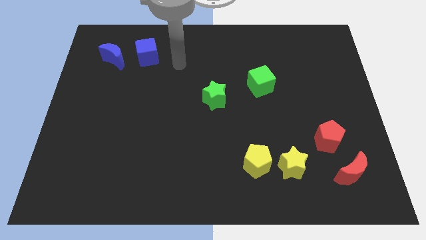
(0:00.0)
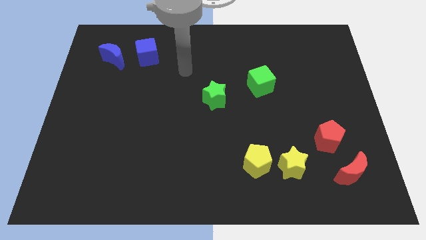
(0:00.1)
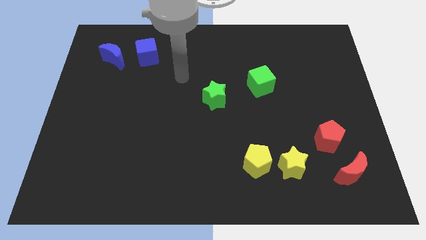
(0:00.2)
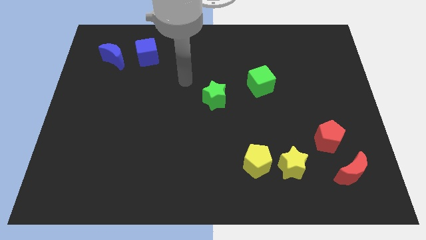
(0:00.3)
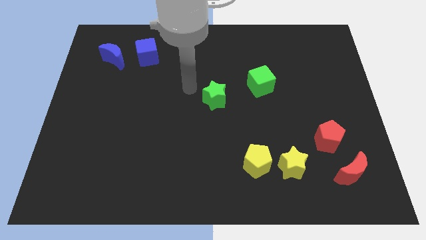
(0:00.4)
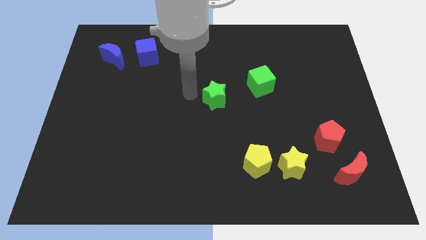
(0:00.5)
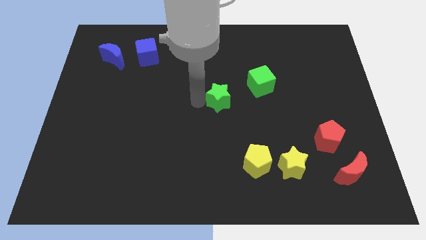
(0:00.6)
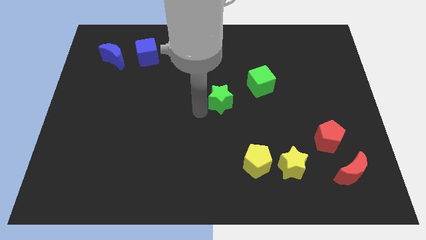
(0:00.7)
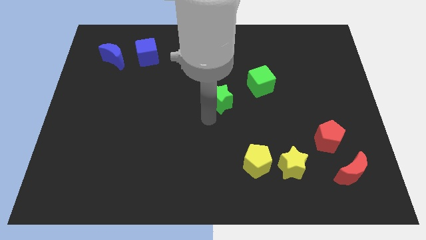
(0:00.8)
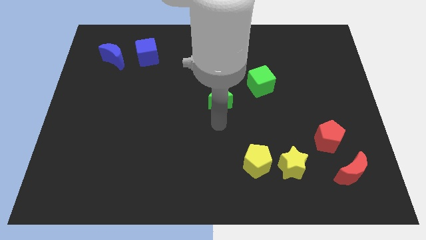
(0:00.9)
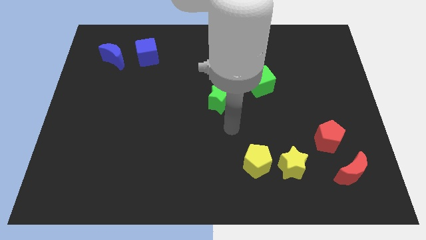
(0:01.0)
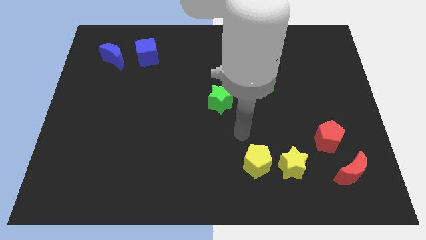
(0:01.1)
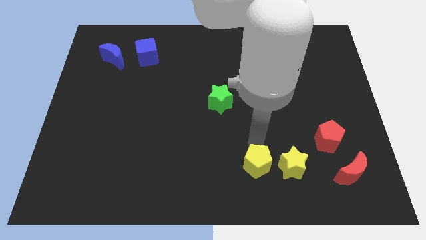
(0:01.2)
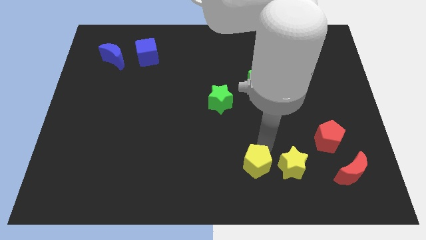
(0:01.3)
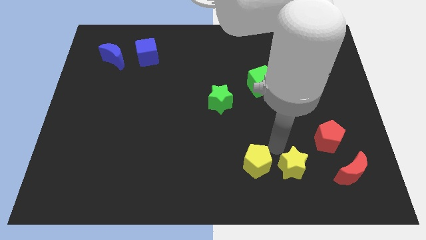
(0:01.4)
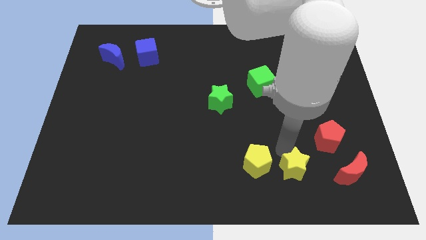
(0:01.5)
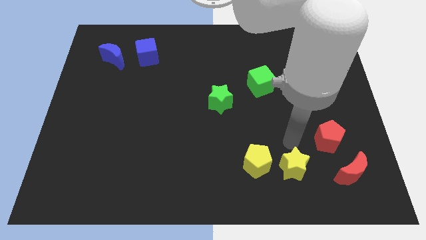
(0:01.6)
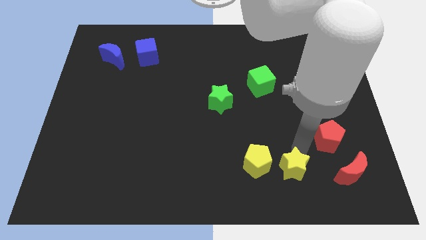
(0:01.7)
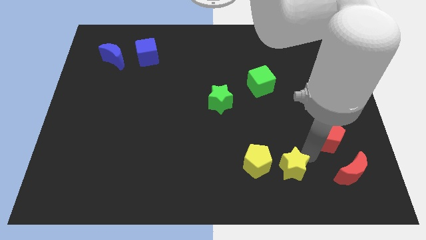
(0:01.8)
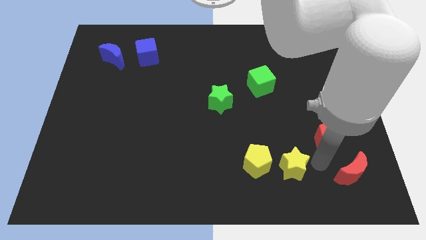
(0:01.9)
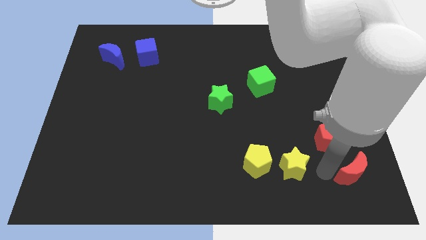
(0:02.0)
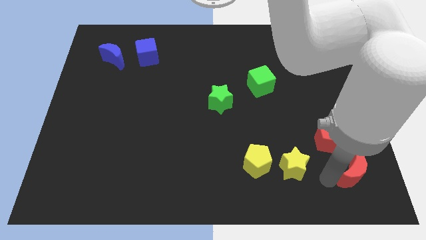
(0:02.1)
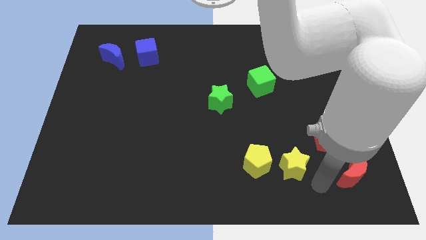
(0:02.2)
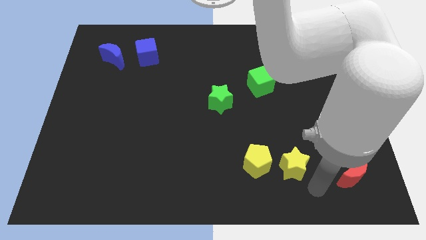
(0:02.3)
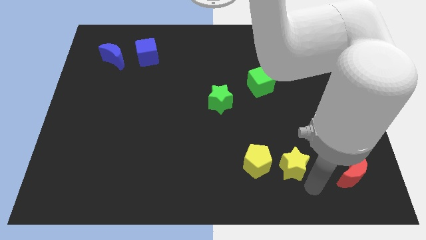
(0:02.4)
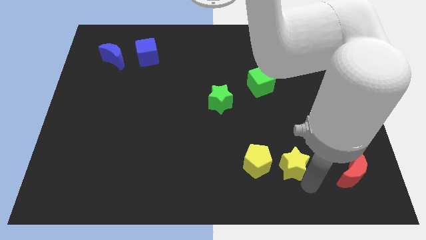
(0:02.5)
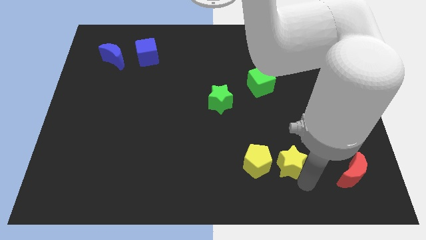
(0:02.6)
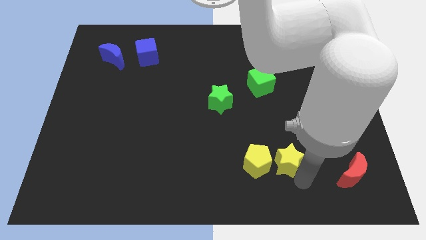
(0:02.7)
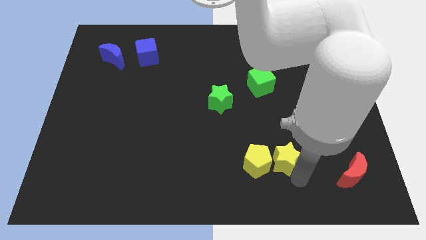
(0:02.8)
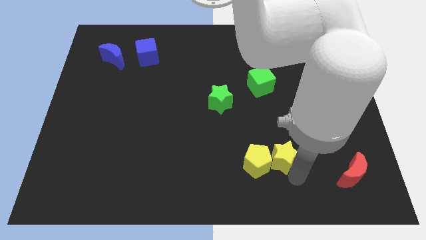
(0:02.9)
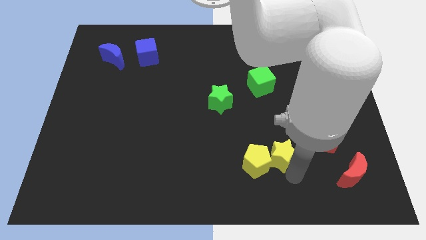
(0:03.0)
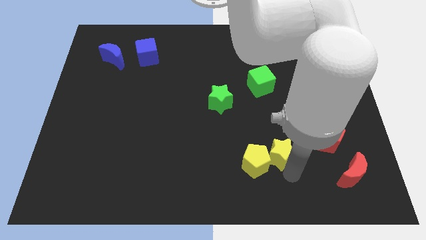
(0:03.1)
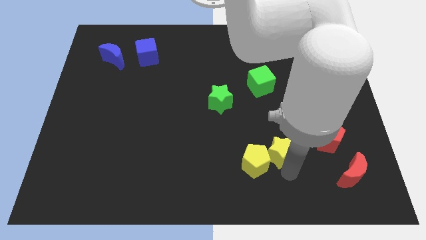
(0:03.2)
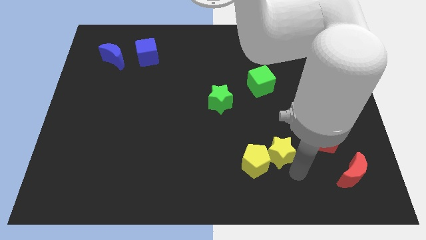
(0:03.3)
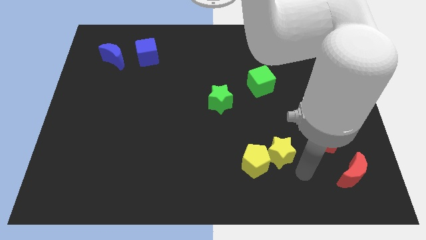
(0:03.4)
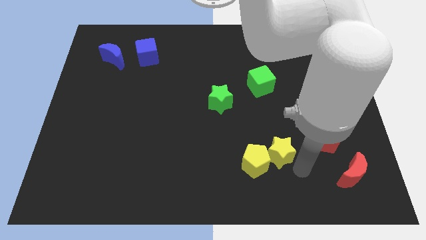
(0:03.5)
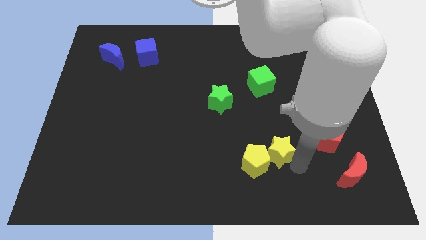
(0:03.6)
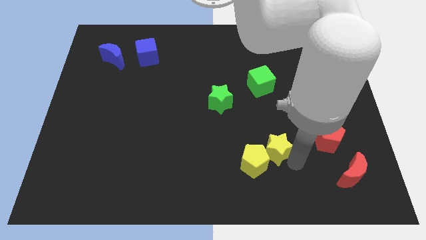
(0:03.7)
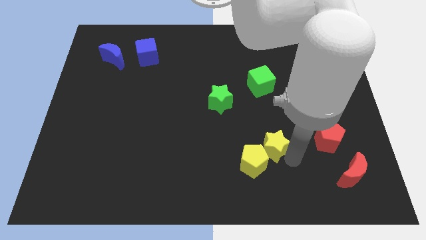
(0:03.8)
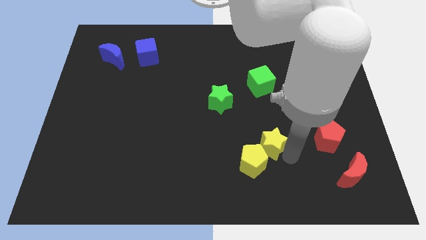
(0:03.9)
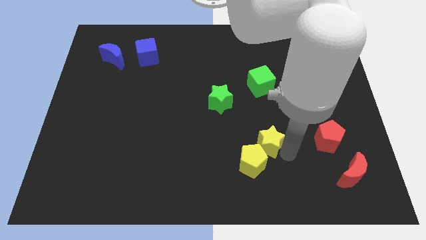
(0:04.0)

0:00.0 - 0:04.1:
push the yellow star up and to the left diagonally a bit

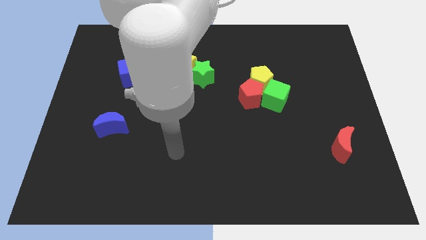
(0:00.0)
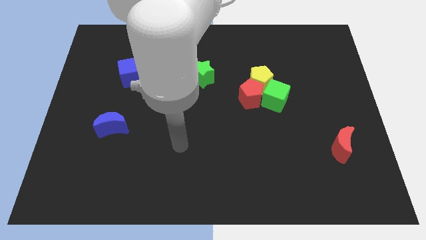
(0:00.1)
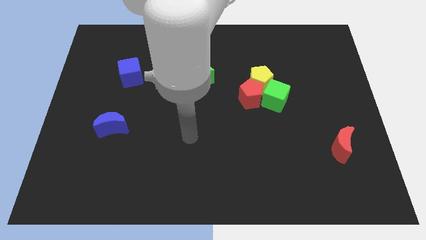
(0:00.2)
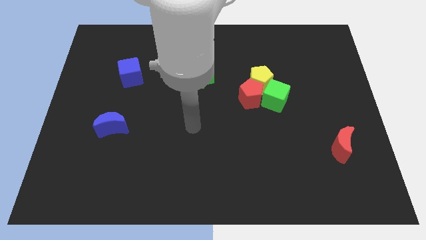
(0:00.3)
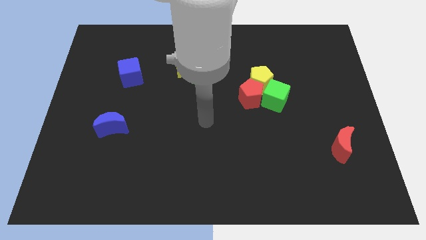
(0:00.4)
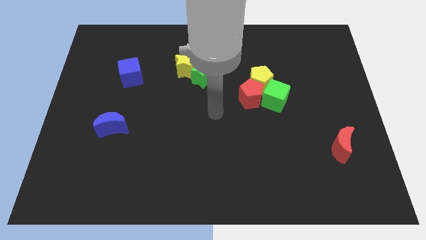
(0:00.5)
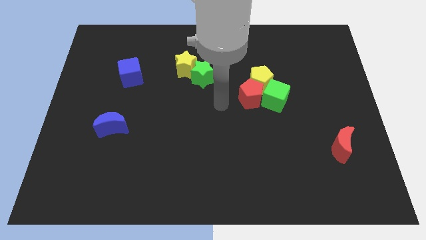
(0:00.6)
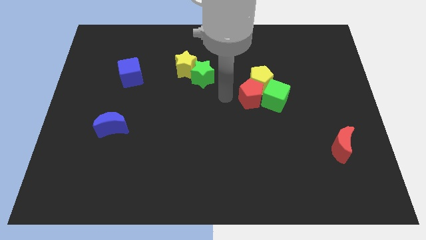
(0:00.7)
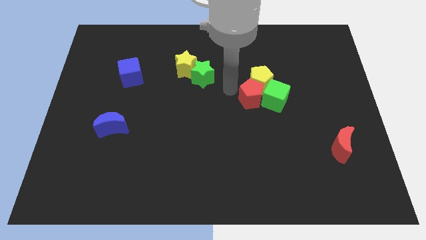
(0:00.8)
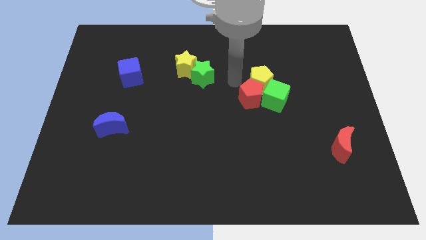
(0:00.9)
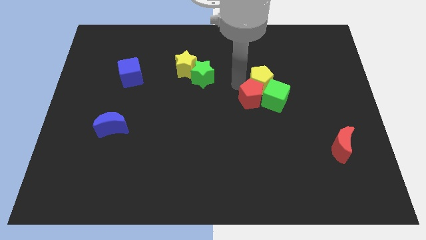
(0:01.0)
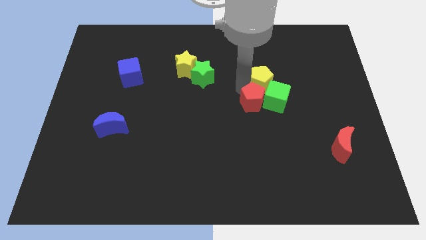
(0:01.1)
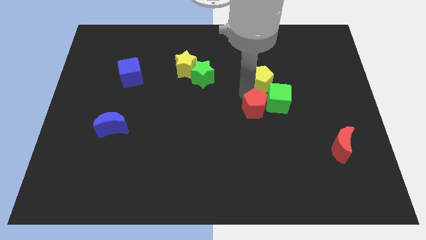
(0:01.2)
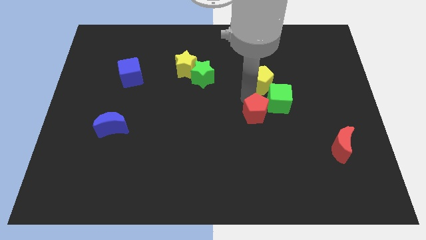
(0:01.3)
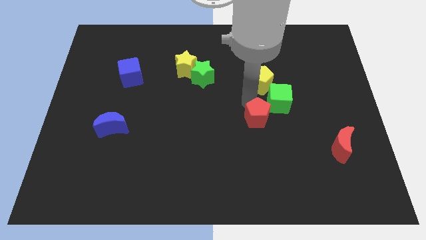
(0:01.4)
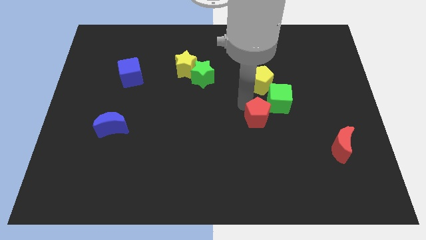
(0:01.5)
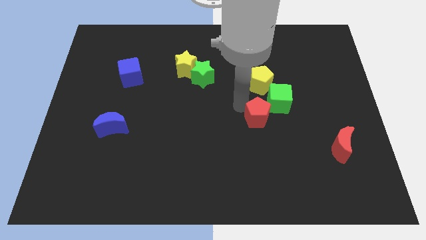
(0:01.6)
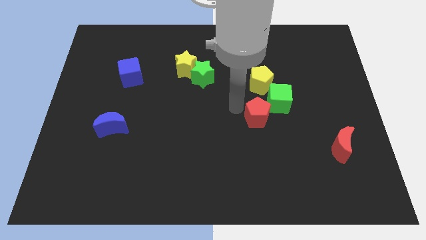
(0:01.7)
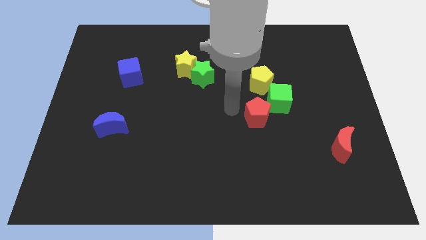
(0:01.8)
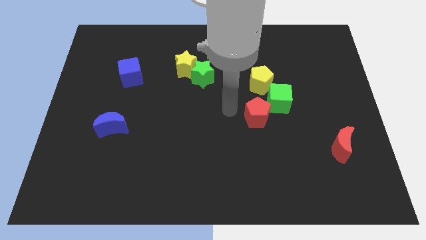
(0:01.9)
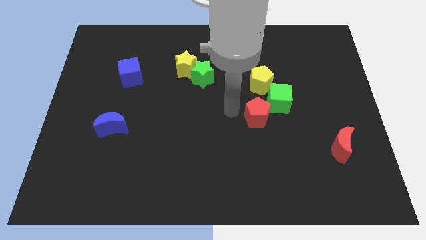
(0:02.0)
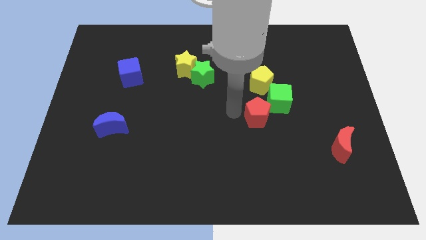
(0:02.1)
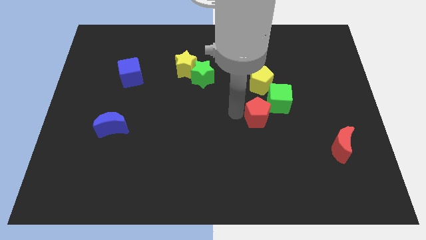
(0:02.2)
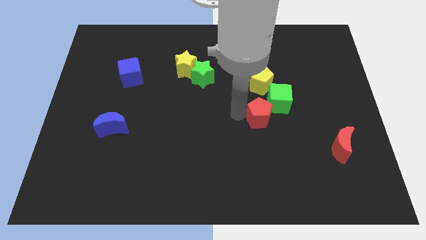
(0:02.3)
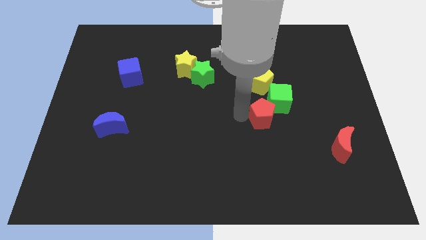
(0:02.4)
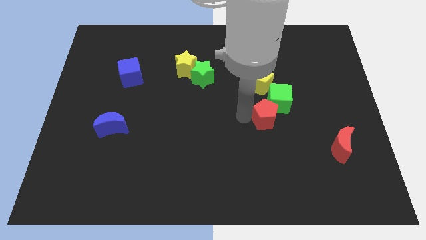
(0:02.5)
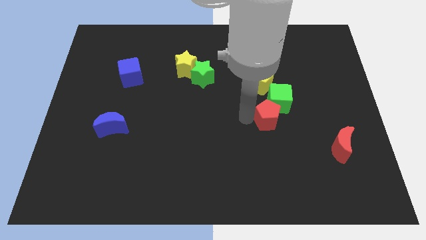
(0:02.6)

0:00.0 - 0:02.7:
move the red pentagon somewhat downwards and then to the right

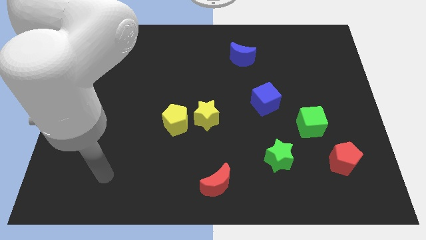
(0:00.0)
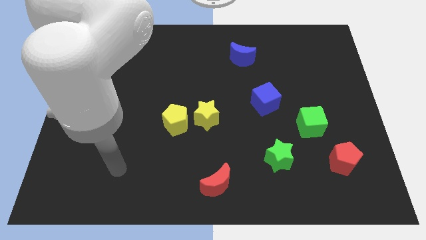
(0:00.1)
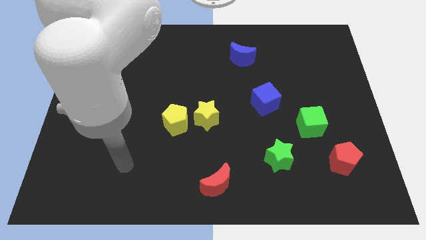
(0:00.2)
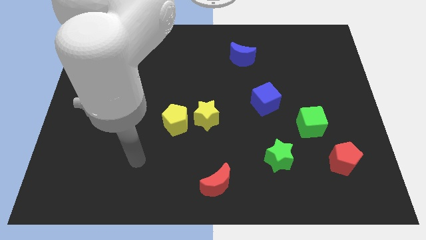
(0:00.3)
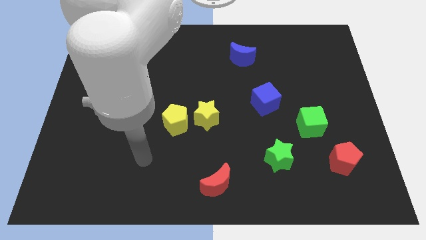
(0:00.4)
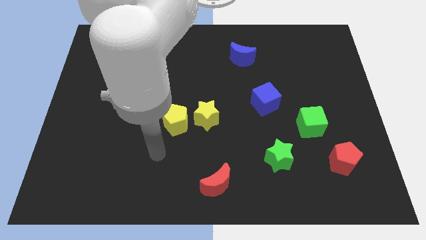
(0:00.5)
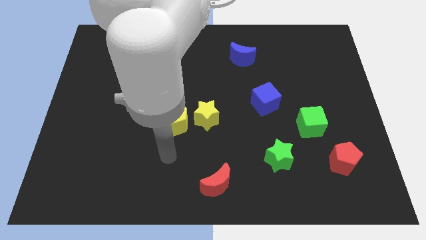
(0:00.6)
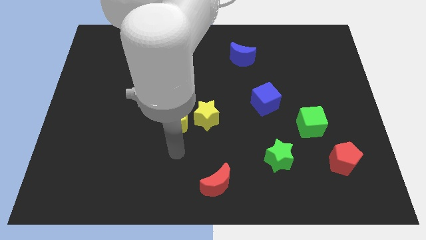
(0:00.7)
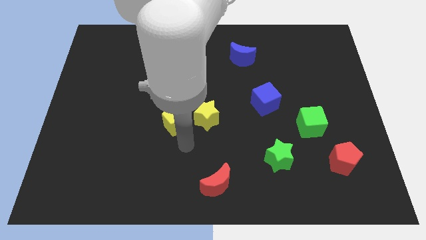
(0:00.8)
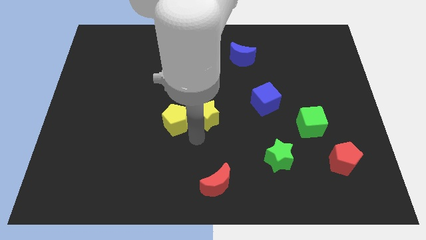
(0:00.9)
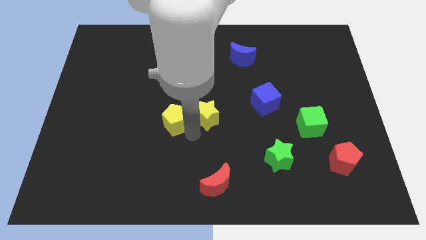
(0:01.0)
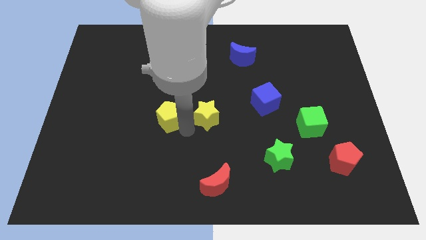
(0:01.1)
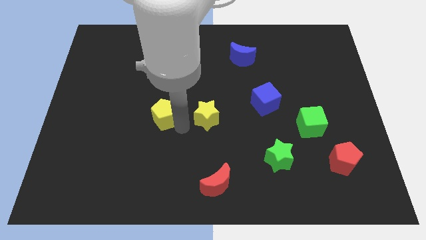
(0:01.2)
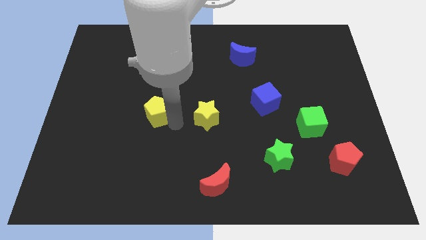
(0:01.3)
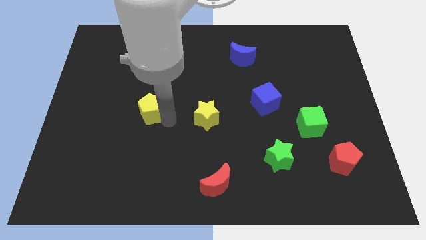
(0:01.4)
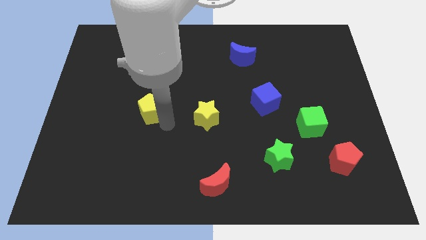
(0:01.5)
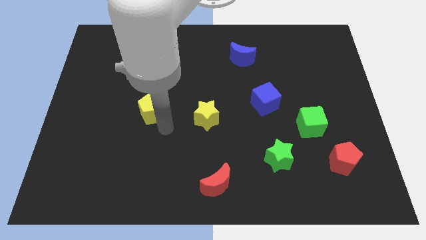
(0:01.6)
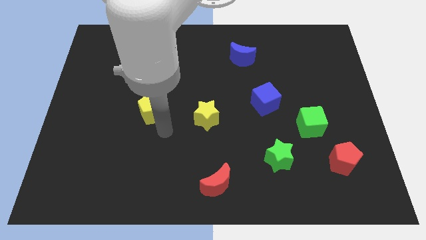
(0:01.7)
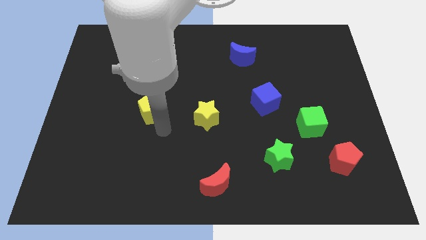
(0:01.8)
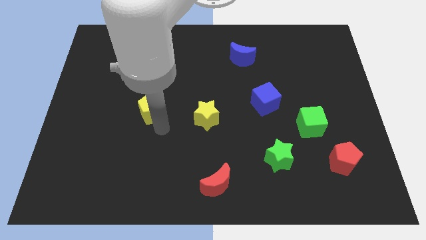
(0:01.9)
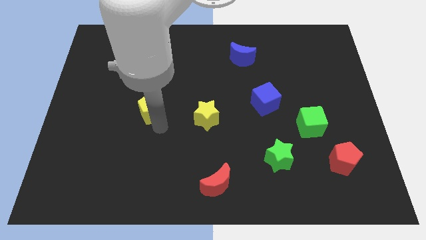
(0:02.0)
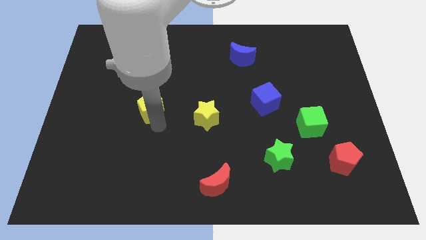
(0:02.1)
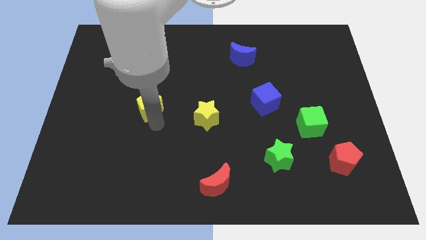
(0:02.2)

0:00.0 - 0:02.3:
push the yellow pentagon diagonally up and left somewhat
